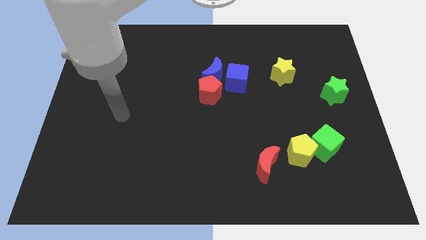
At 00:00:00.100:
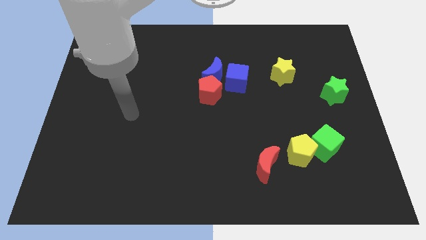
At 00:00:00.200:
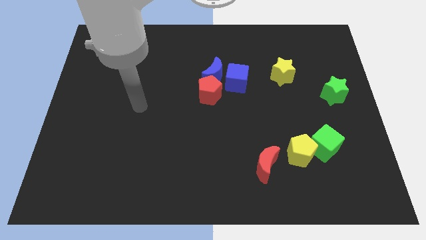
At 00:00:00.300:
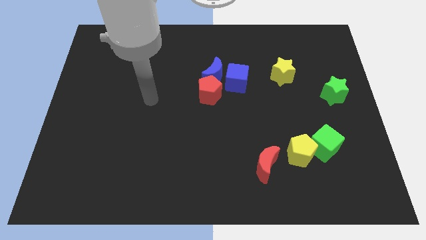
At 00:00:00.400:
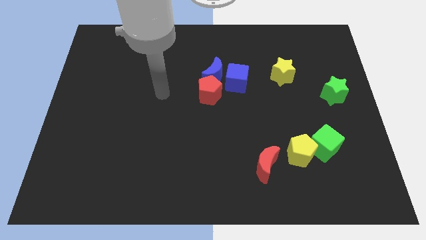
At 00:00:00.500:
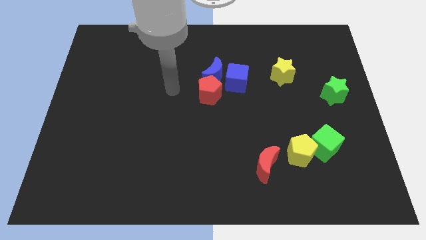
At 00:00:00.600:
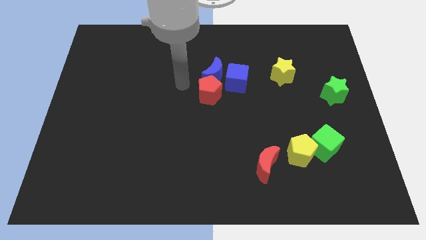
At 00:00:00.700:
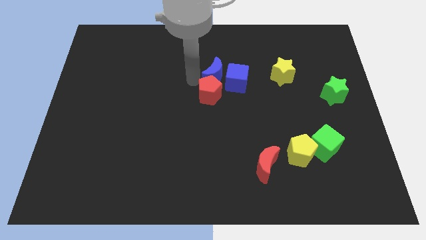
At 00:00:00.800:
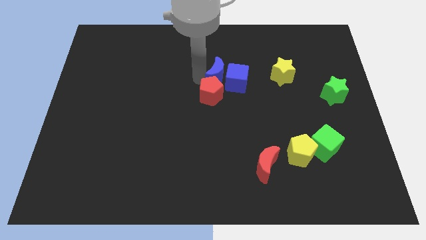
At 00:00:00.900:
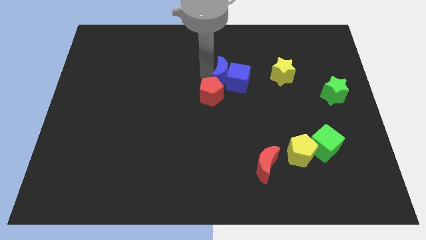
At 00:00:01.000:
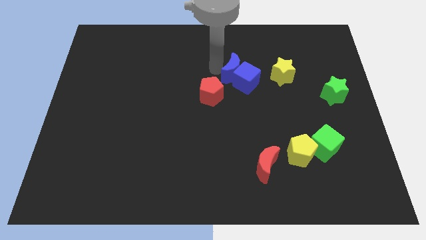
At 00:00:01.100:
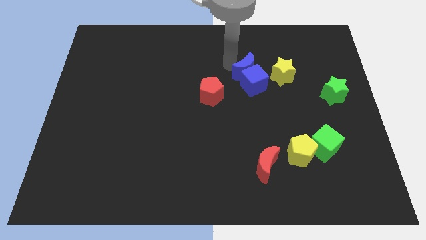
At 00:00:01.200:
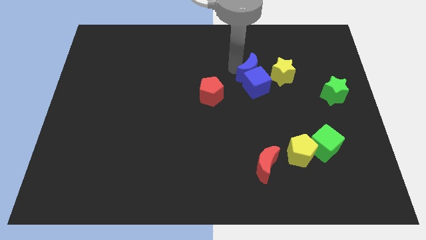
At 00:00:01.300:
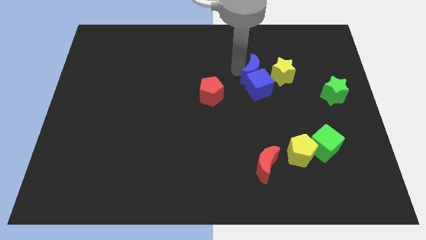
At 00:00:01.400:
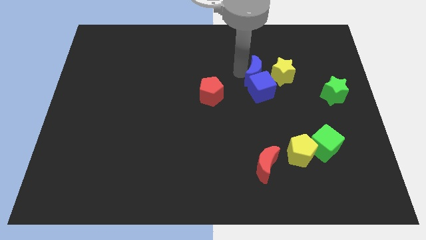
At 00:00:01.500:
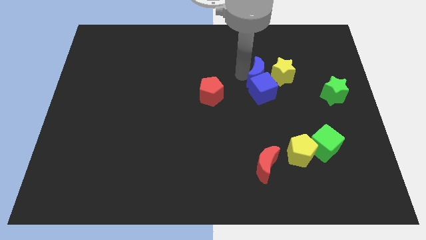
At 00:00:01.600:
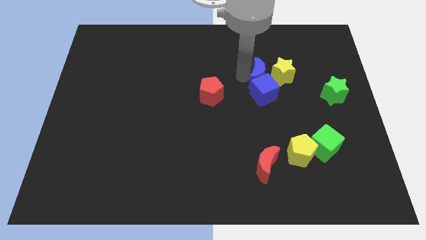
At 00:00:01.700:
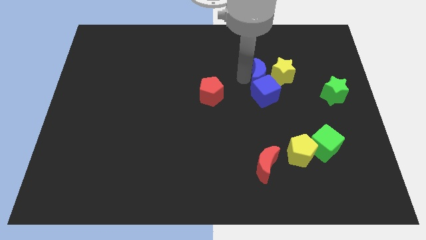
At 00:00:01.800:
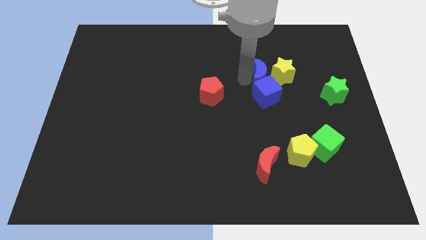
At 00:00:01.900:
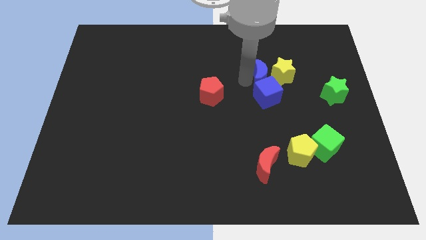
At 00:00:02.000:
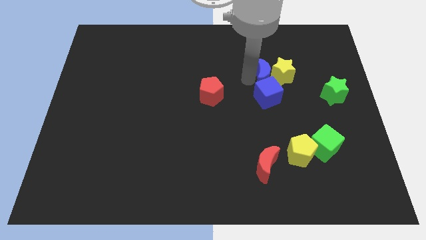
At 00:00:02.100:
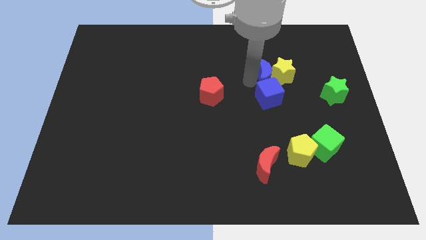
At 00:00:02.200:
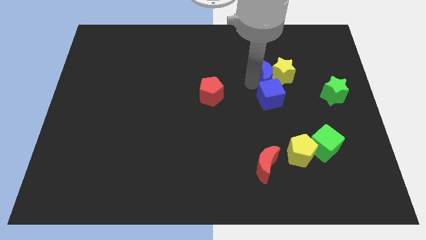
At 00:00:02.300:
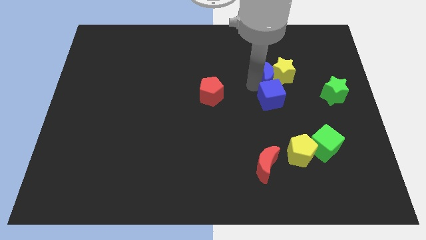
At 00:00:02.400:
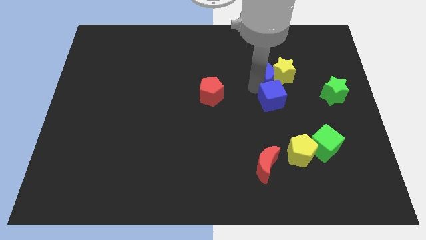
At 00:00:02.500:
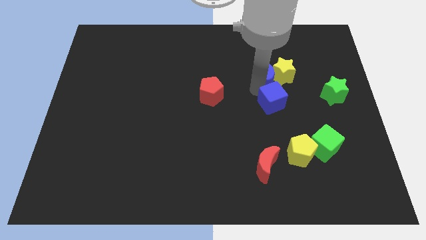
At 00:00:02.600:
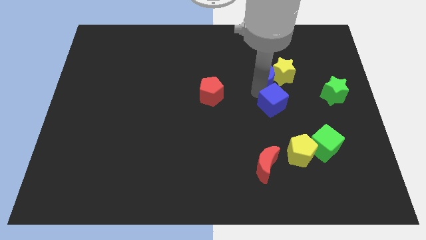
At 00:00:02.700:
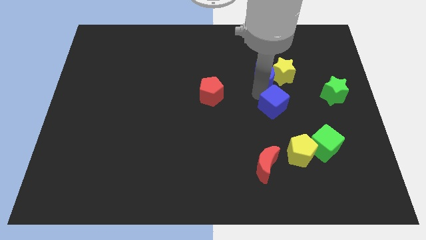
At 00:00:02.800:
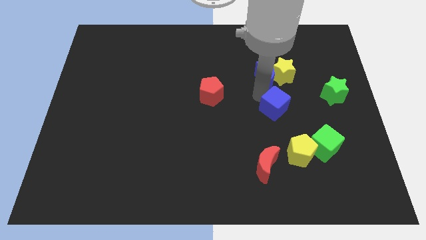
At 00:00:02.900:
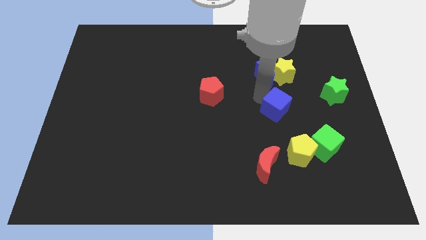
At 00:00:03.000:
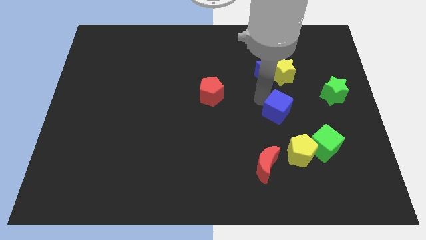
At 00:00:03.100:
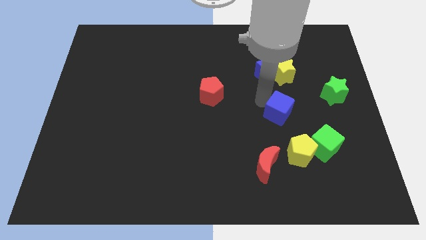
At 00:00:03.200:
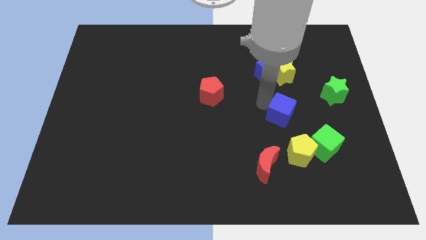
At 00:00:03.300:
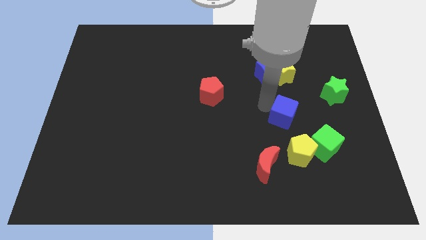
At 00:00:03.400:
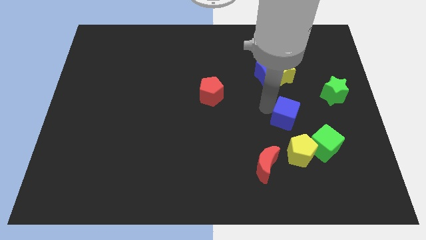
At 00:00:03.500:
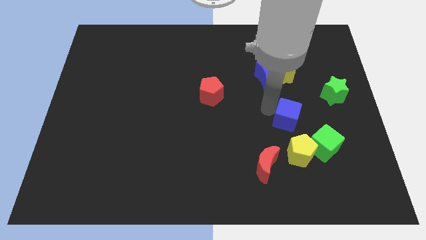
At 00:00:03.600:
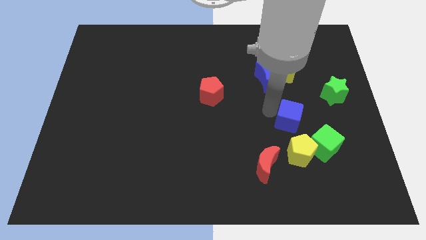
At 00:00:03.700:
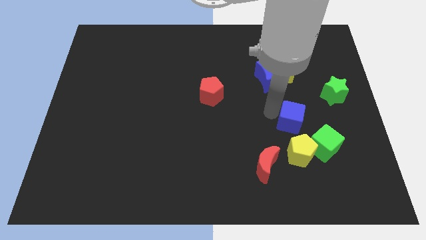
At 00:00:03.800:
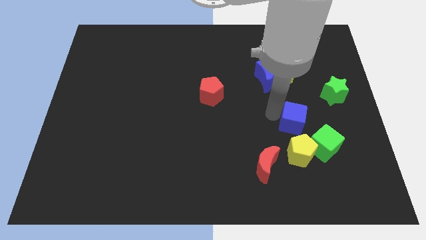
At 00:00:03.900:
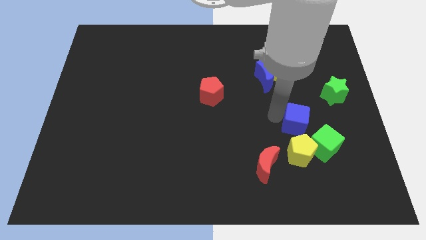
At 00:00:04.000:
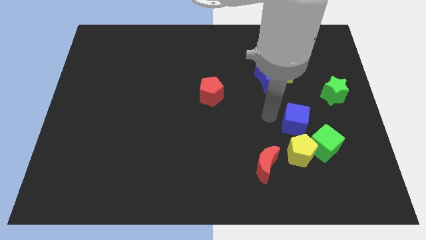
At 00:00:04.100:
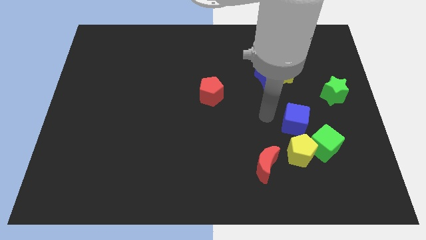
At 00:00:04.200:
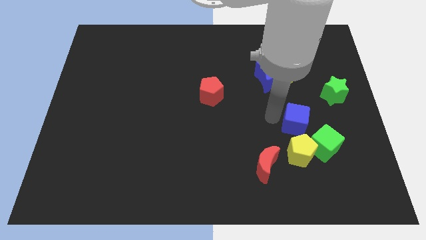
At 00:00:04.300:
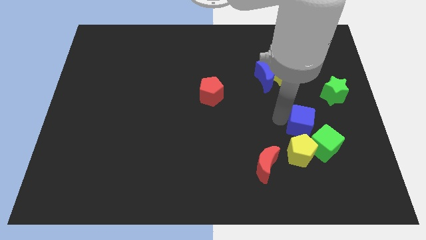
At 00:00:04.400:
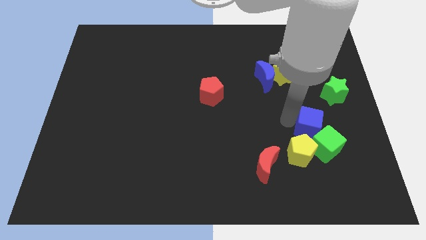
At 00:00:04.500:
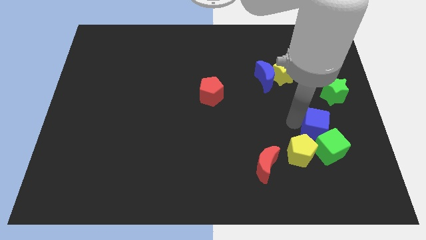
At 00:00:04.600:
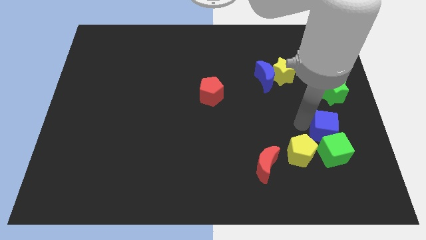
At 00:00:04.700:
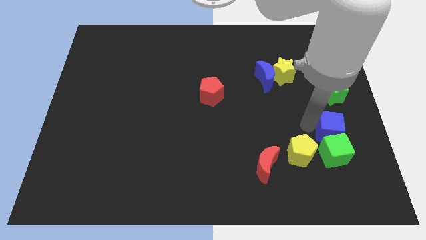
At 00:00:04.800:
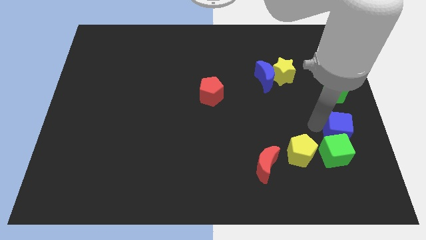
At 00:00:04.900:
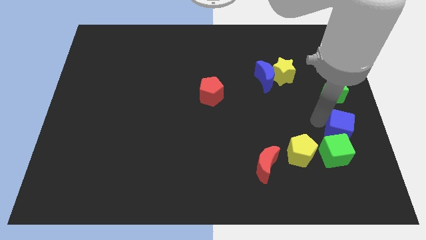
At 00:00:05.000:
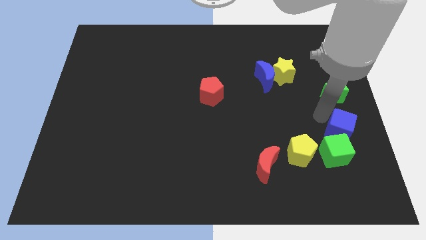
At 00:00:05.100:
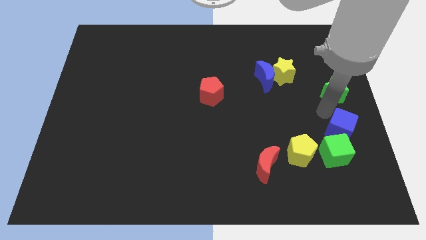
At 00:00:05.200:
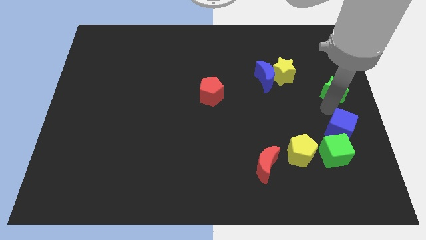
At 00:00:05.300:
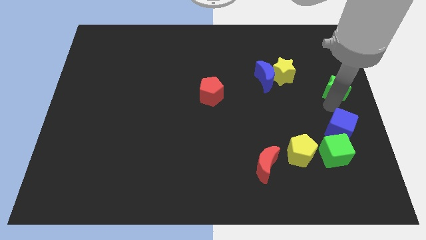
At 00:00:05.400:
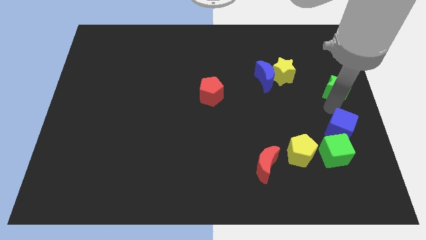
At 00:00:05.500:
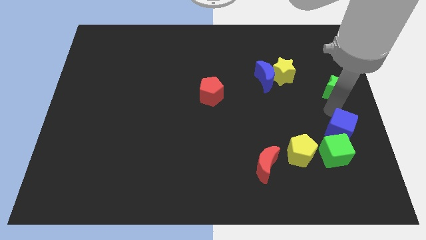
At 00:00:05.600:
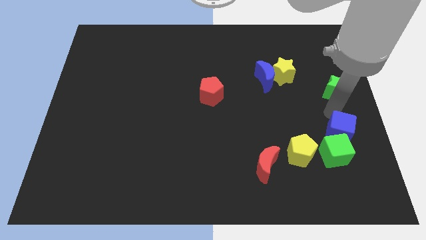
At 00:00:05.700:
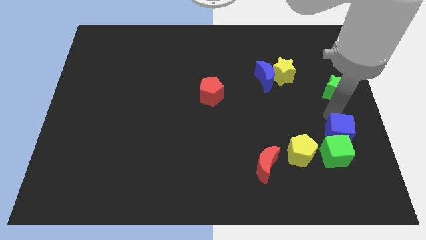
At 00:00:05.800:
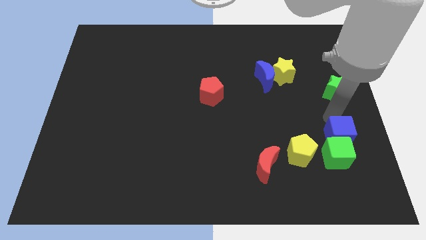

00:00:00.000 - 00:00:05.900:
put the blue cube to the right side of the yellow pentagon
